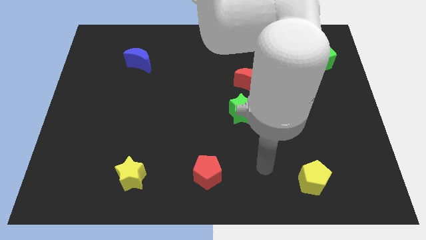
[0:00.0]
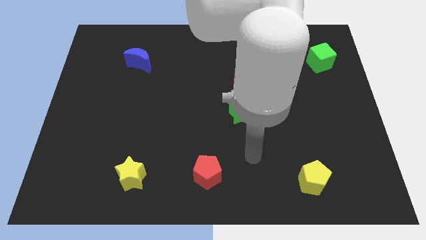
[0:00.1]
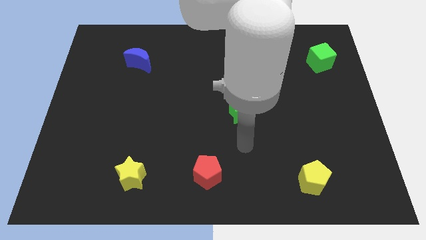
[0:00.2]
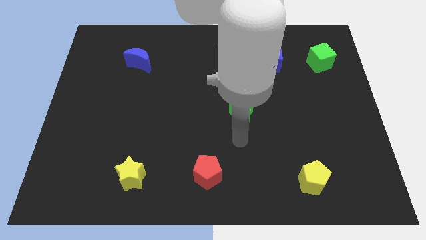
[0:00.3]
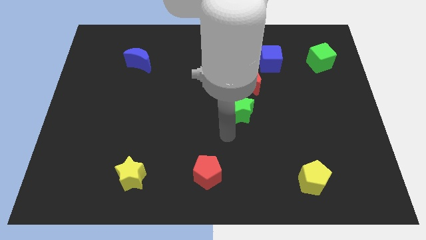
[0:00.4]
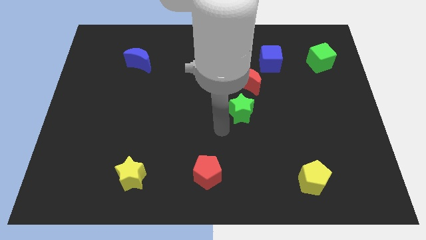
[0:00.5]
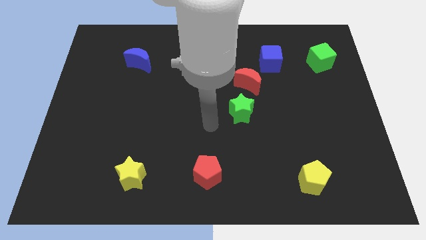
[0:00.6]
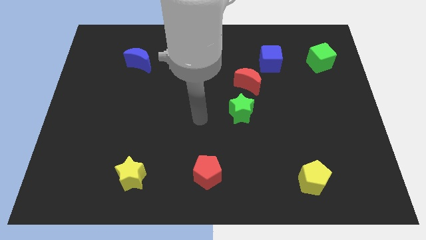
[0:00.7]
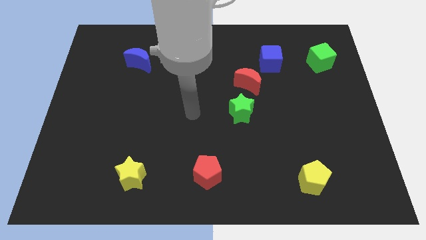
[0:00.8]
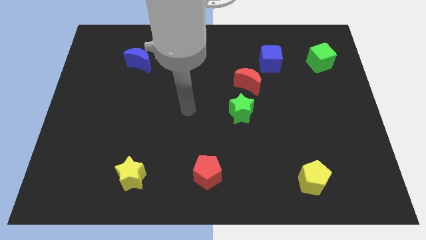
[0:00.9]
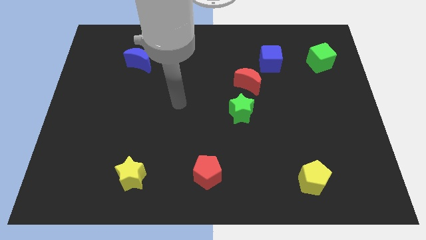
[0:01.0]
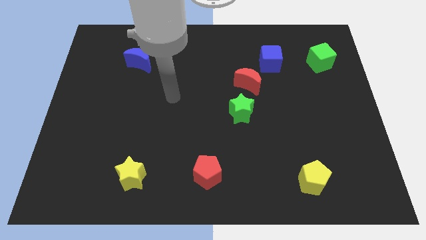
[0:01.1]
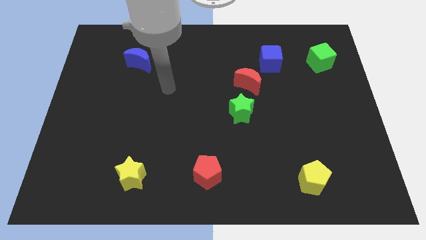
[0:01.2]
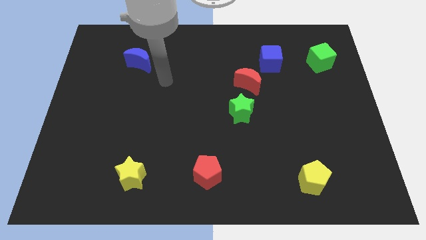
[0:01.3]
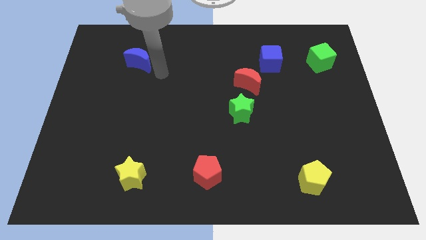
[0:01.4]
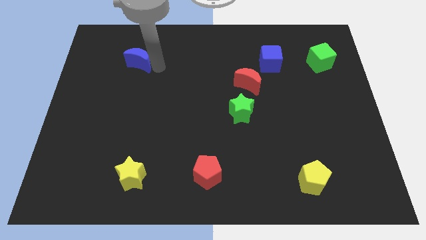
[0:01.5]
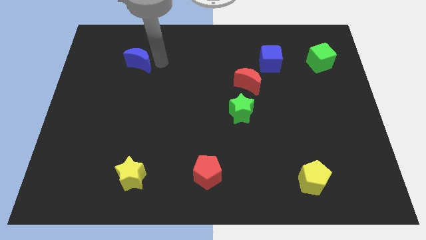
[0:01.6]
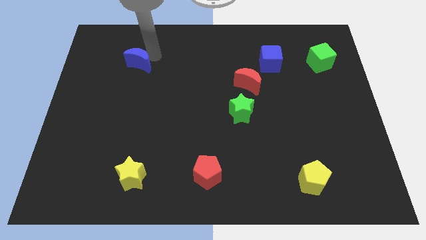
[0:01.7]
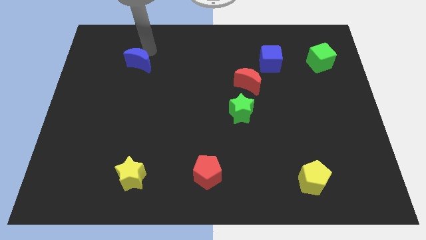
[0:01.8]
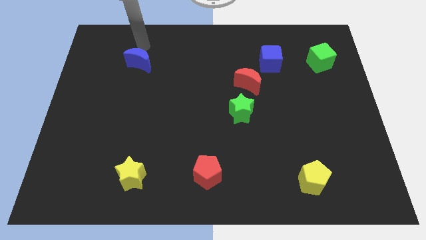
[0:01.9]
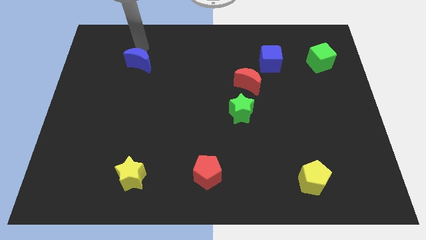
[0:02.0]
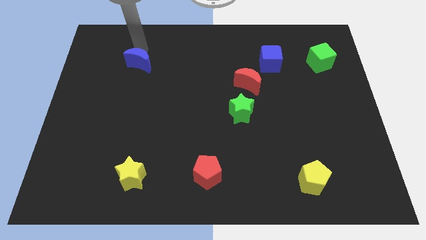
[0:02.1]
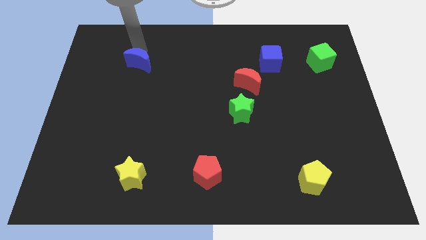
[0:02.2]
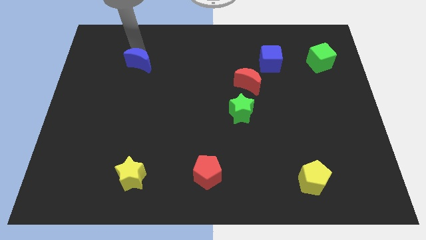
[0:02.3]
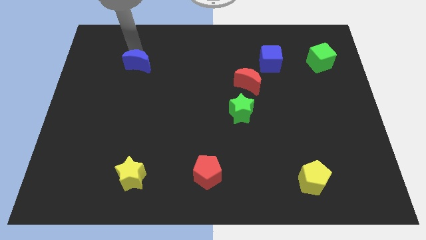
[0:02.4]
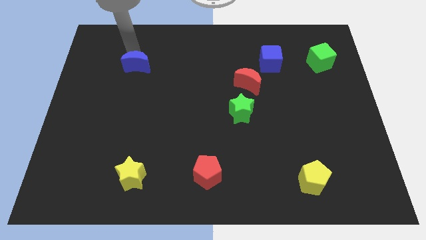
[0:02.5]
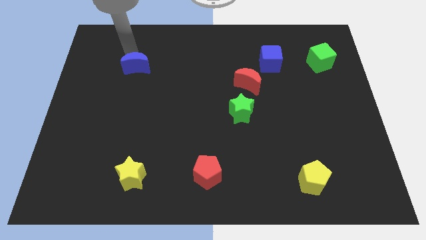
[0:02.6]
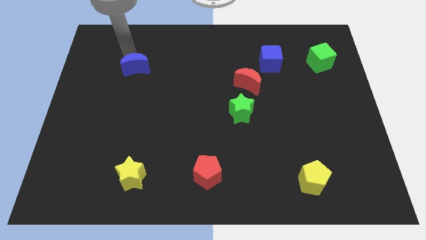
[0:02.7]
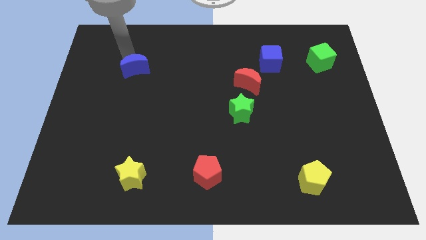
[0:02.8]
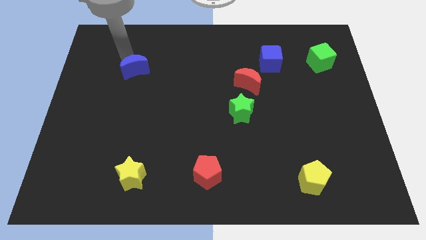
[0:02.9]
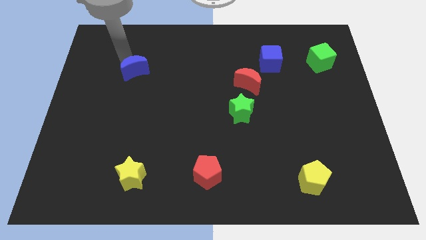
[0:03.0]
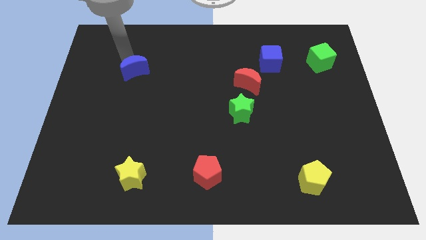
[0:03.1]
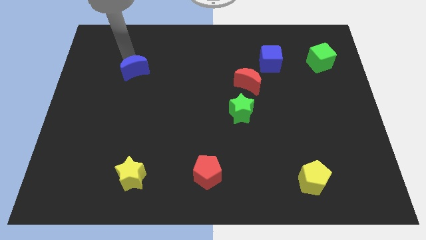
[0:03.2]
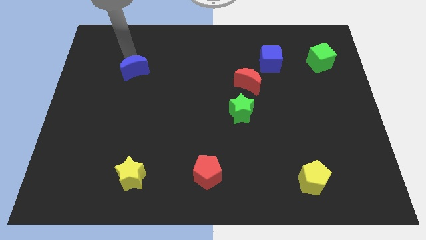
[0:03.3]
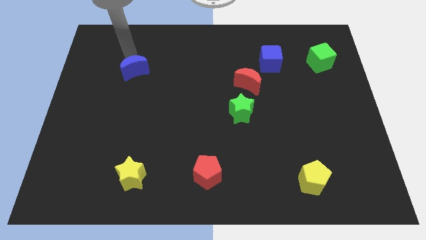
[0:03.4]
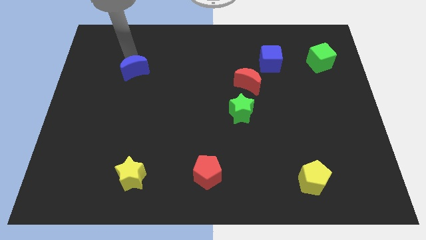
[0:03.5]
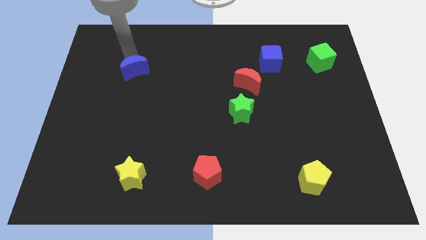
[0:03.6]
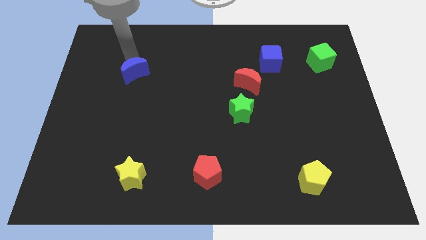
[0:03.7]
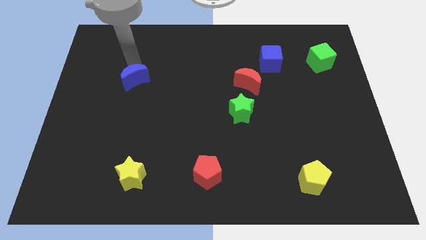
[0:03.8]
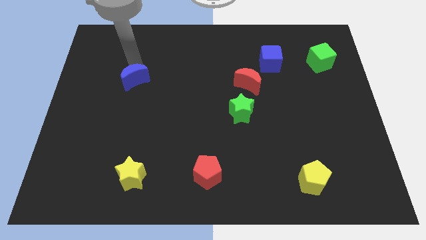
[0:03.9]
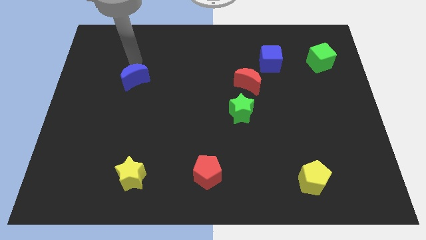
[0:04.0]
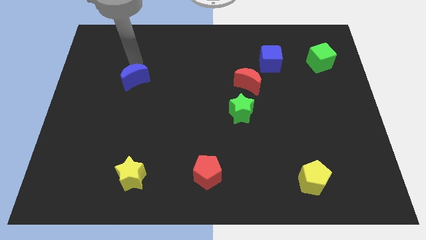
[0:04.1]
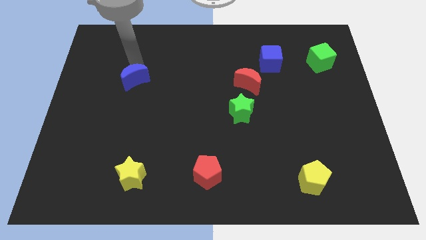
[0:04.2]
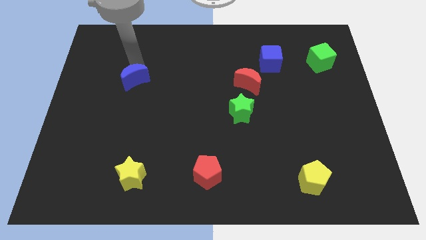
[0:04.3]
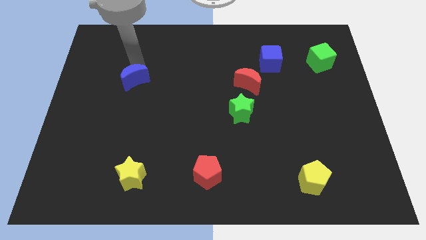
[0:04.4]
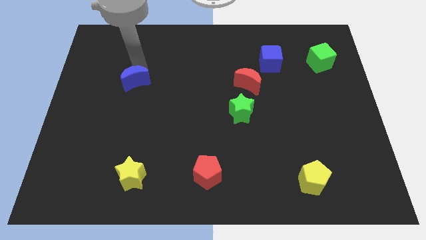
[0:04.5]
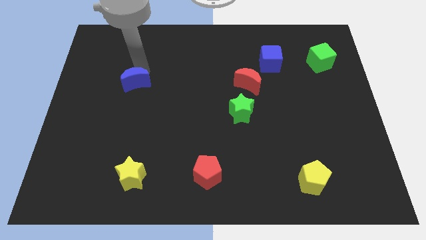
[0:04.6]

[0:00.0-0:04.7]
move the blue moon a little downwards

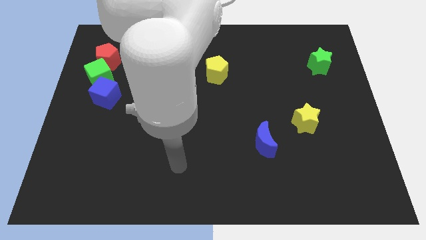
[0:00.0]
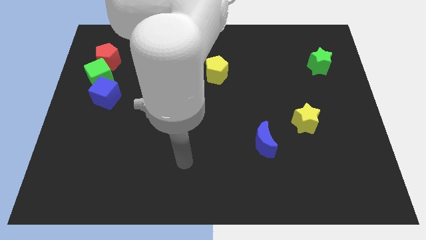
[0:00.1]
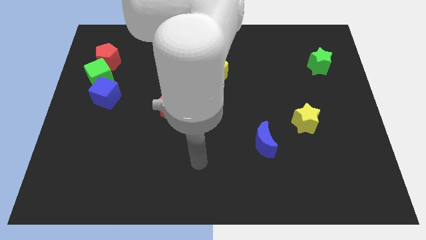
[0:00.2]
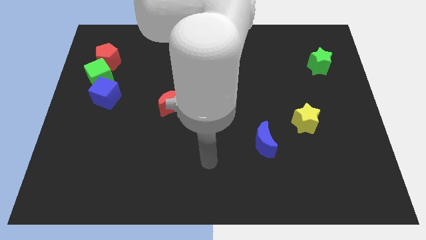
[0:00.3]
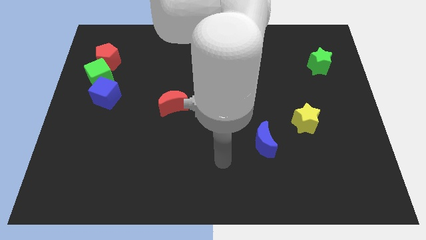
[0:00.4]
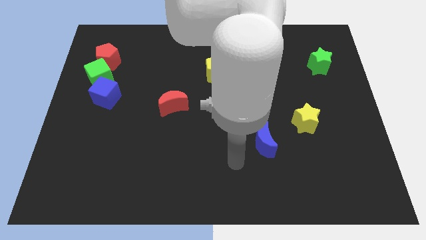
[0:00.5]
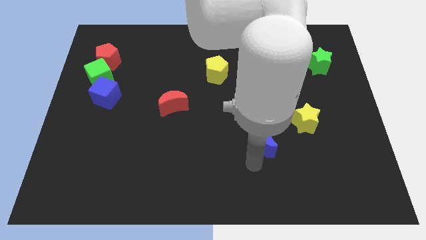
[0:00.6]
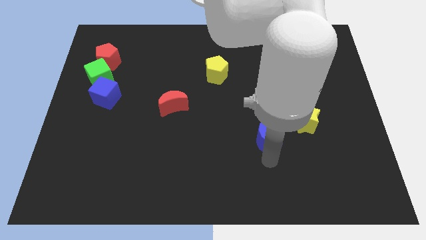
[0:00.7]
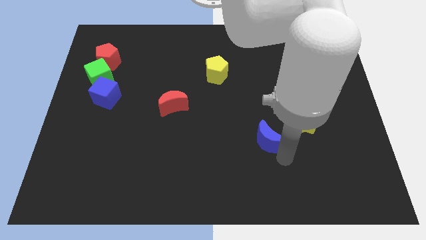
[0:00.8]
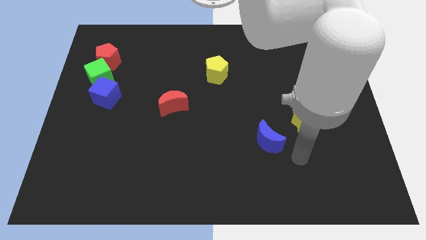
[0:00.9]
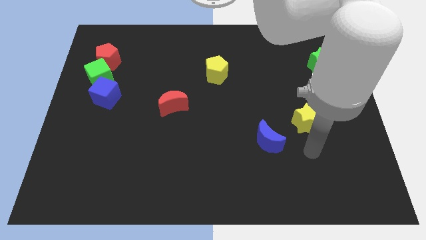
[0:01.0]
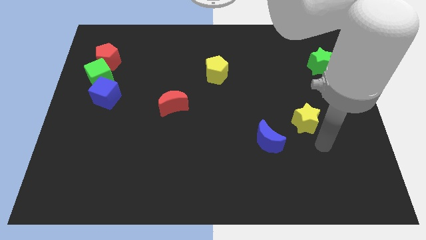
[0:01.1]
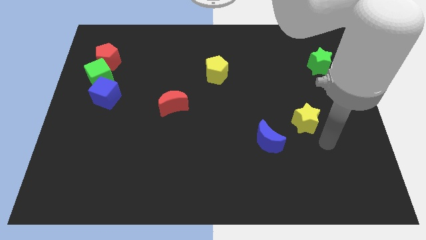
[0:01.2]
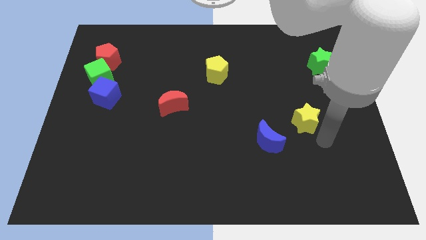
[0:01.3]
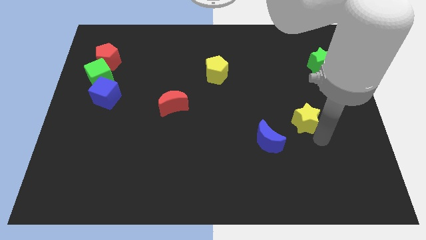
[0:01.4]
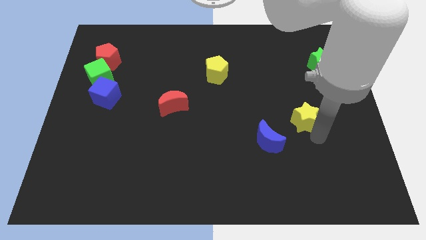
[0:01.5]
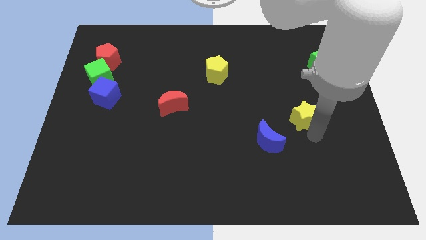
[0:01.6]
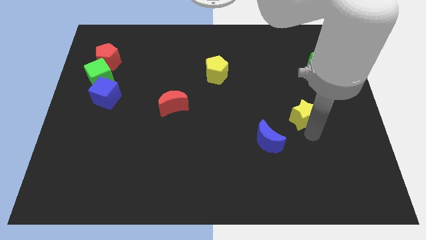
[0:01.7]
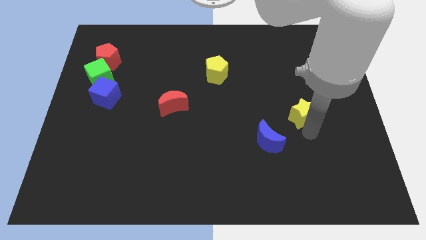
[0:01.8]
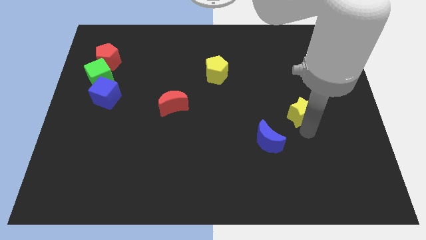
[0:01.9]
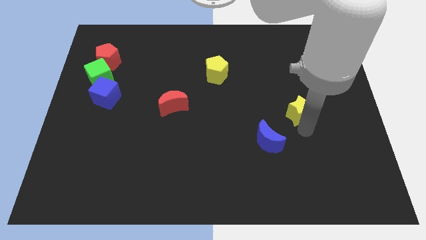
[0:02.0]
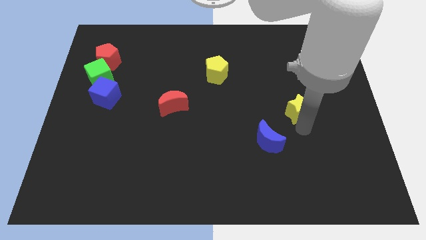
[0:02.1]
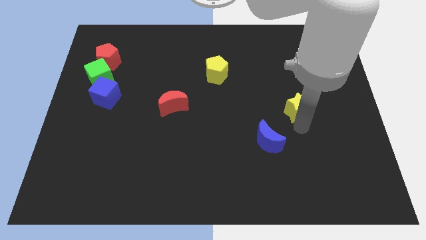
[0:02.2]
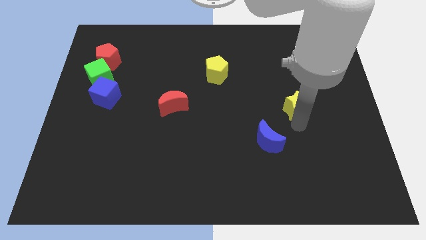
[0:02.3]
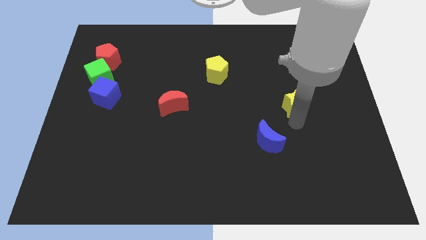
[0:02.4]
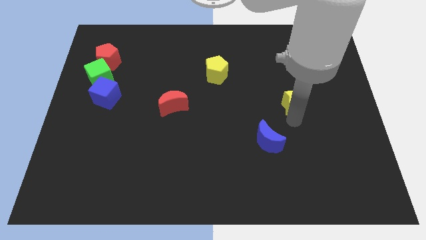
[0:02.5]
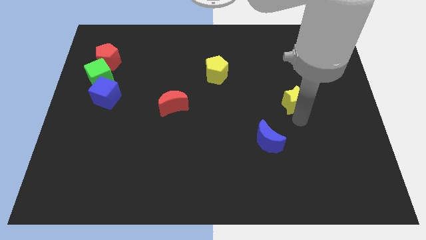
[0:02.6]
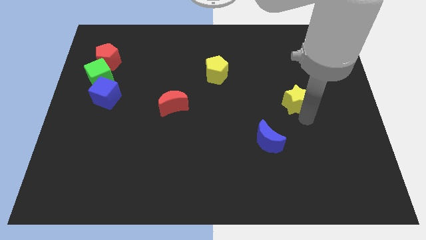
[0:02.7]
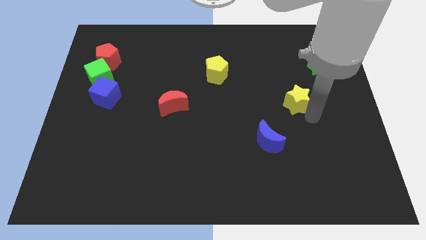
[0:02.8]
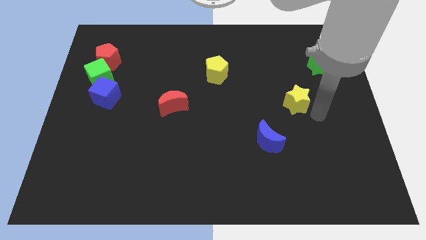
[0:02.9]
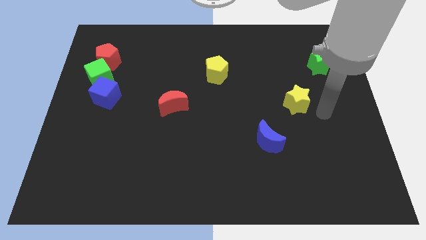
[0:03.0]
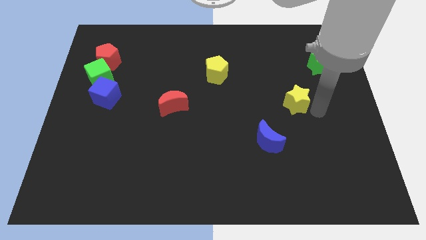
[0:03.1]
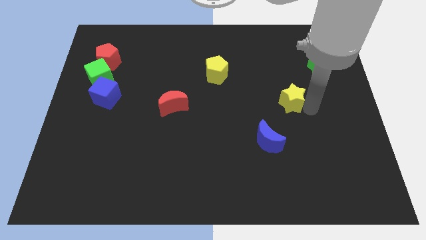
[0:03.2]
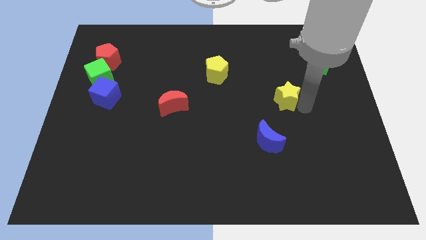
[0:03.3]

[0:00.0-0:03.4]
slide the yellow star upwards and left diagonally somewhat

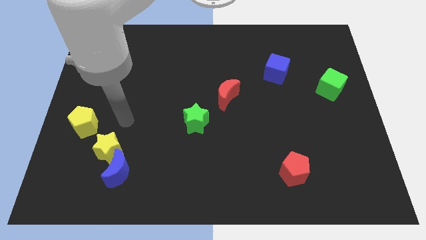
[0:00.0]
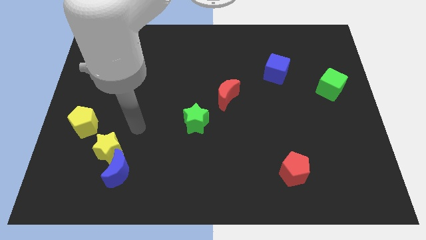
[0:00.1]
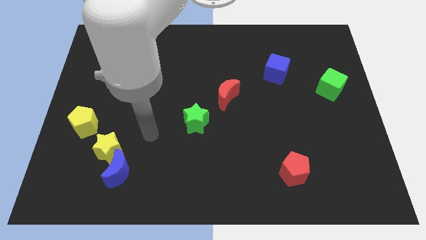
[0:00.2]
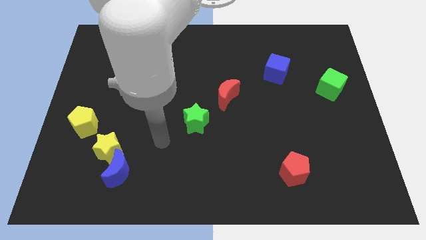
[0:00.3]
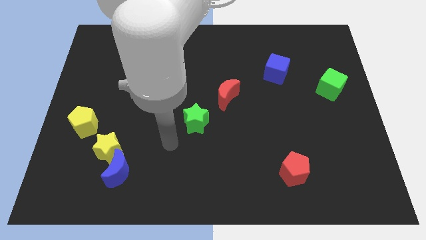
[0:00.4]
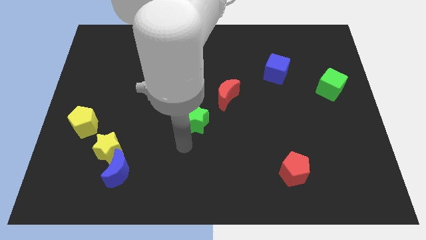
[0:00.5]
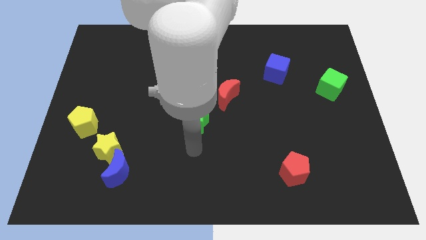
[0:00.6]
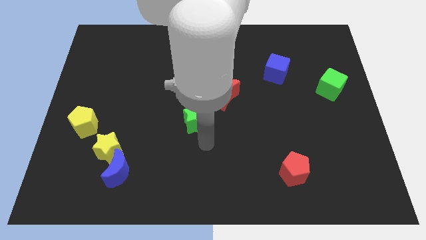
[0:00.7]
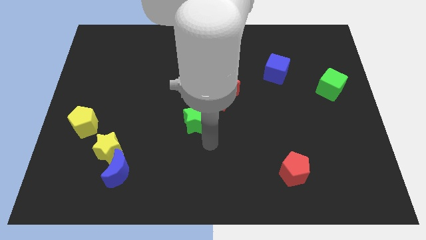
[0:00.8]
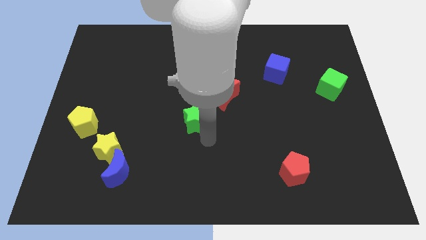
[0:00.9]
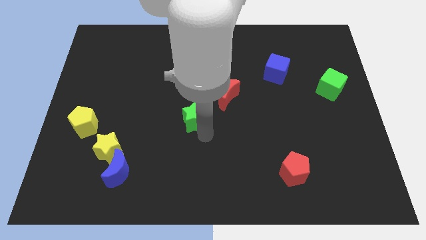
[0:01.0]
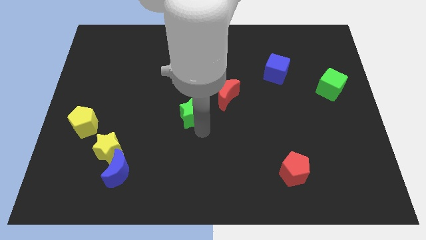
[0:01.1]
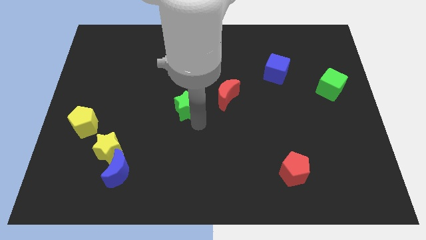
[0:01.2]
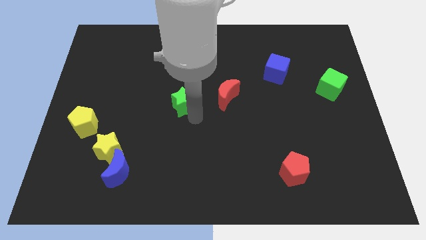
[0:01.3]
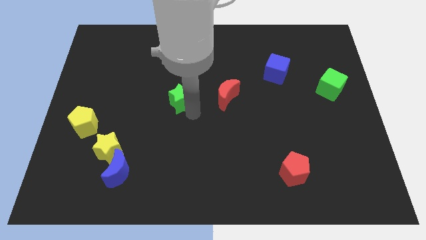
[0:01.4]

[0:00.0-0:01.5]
move the green star up and left a little bit
